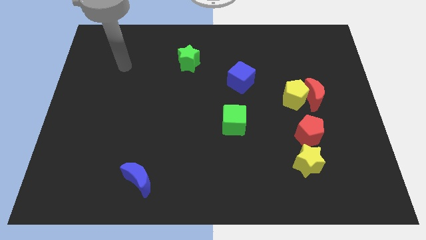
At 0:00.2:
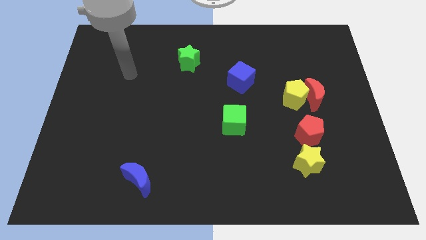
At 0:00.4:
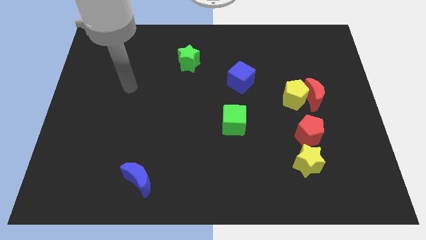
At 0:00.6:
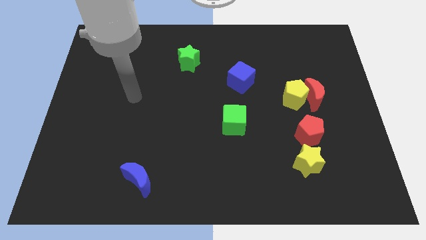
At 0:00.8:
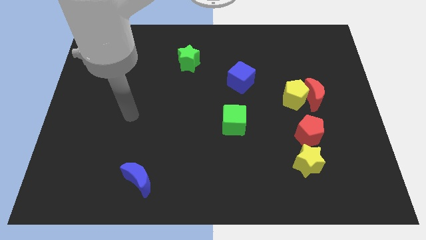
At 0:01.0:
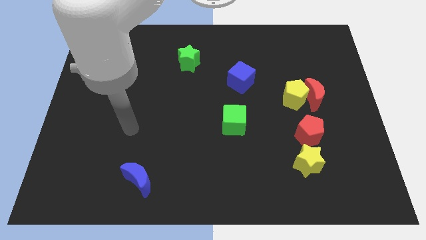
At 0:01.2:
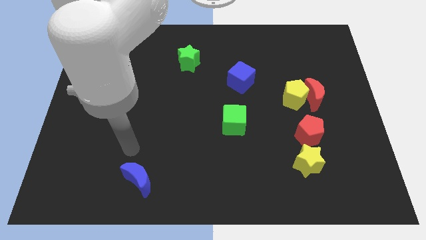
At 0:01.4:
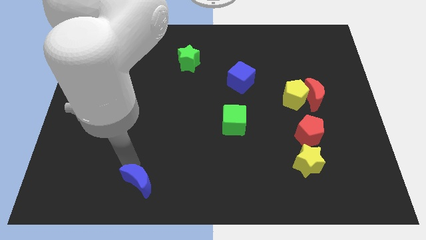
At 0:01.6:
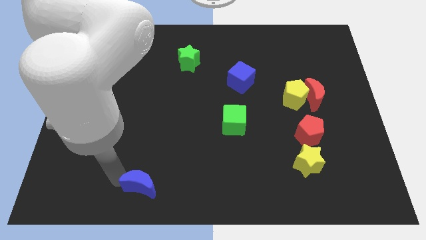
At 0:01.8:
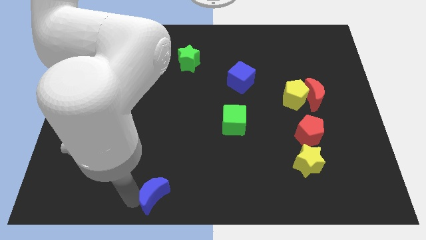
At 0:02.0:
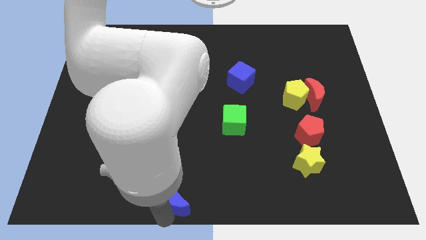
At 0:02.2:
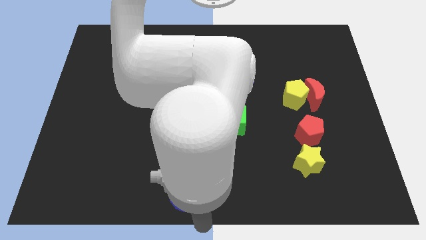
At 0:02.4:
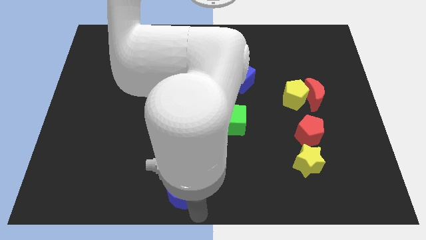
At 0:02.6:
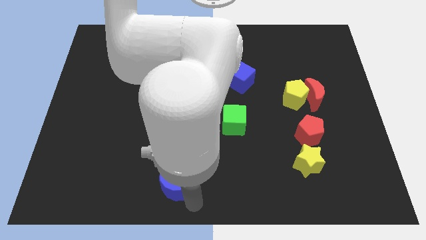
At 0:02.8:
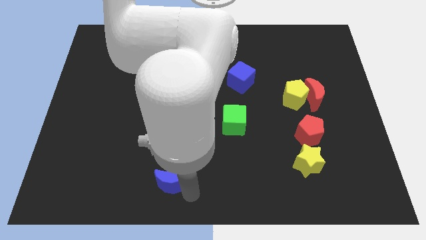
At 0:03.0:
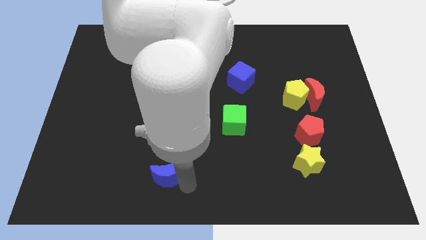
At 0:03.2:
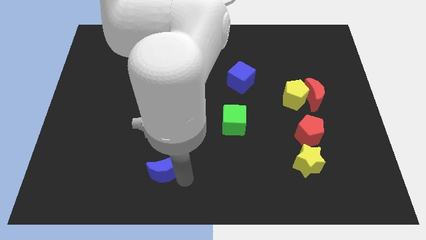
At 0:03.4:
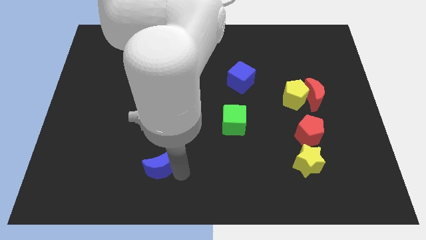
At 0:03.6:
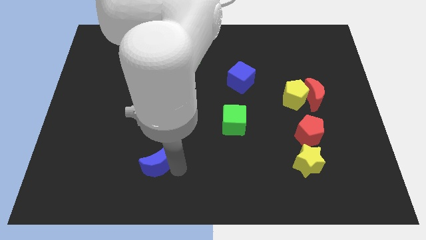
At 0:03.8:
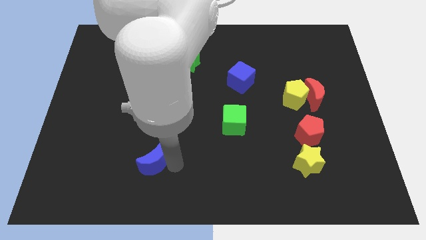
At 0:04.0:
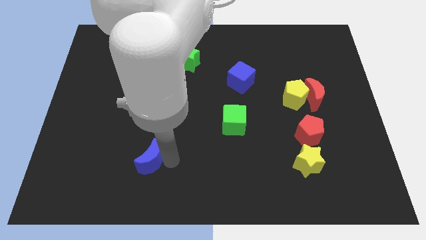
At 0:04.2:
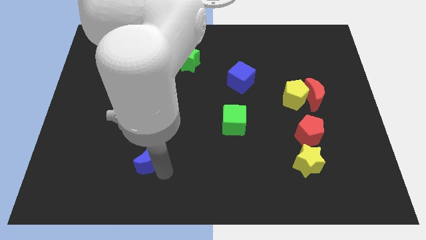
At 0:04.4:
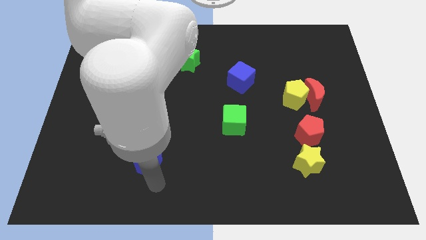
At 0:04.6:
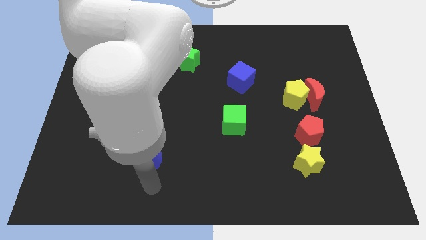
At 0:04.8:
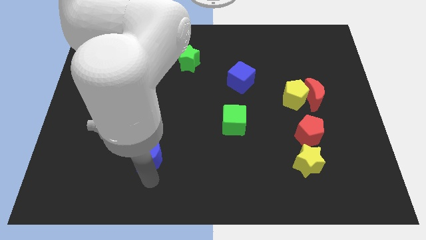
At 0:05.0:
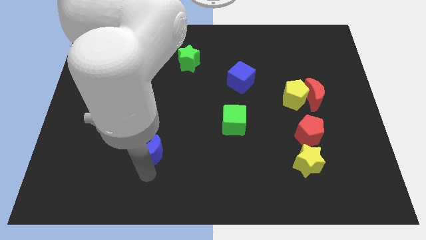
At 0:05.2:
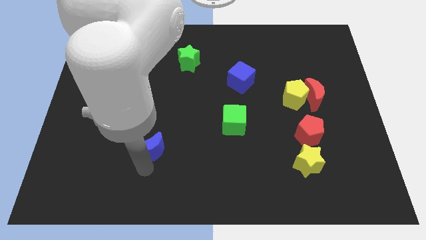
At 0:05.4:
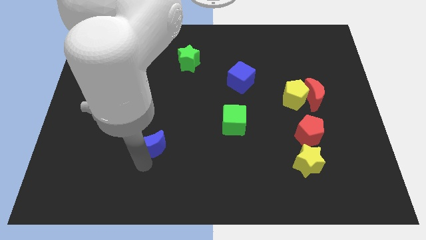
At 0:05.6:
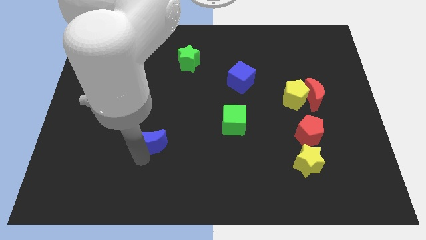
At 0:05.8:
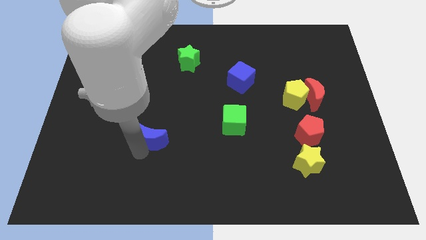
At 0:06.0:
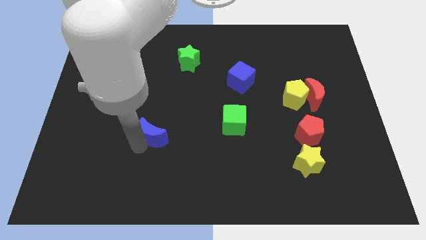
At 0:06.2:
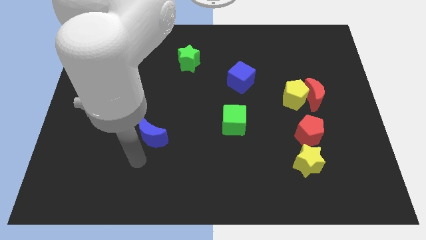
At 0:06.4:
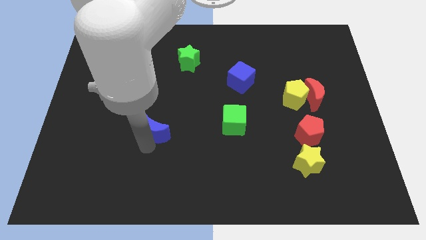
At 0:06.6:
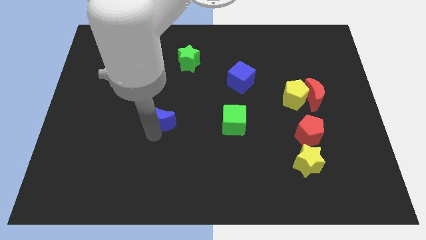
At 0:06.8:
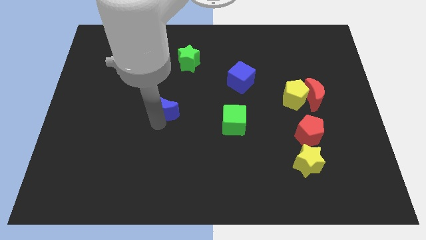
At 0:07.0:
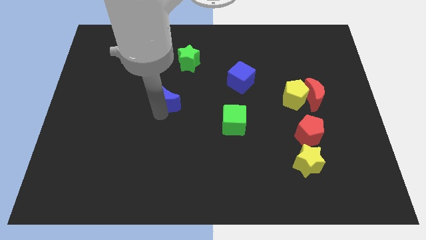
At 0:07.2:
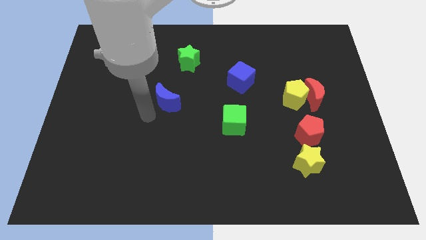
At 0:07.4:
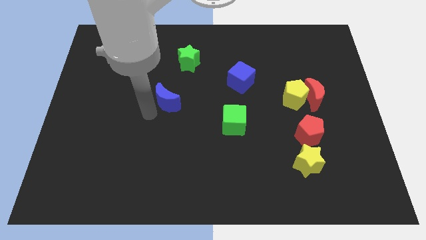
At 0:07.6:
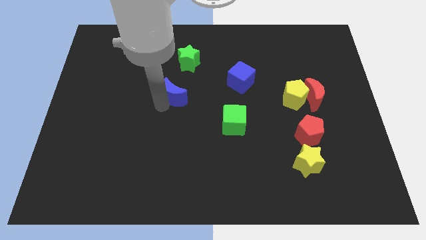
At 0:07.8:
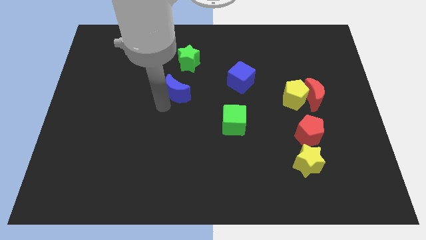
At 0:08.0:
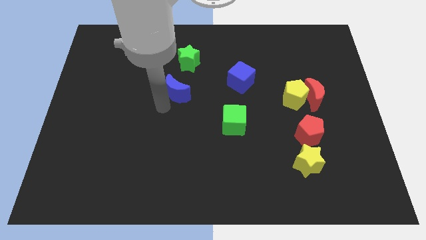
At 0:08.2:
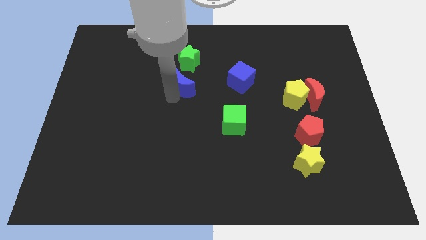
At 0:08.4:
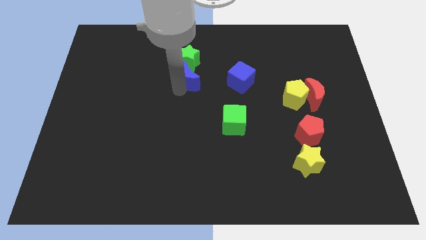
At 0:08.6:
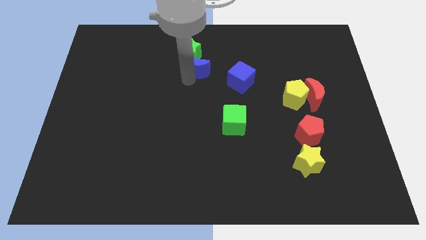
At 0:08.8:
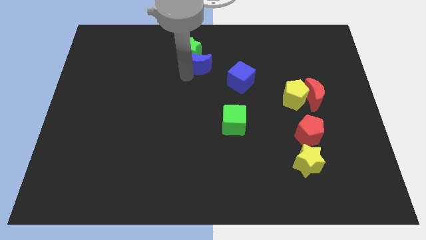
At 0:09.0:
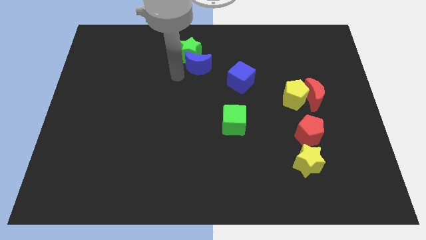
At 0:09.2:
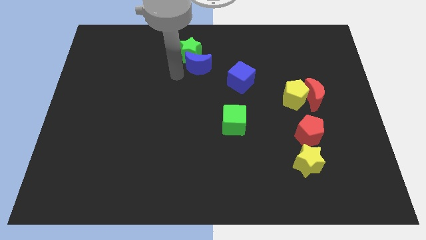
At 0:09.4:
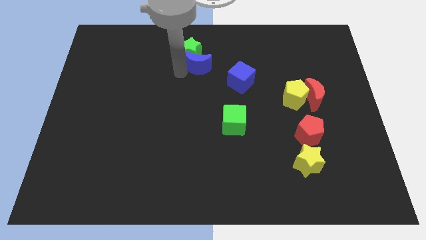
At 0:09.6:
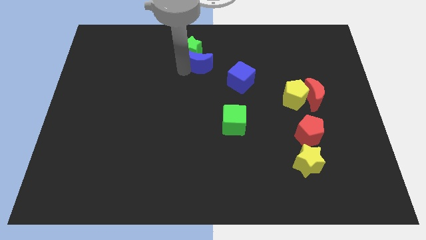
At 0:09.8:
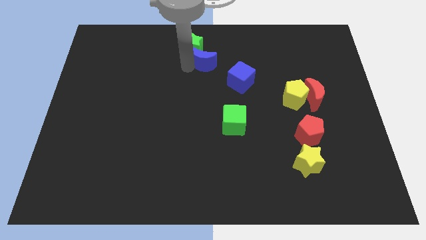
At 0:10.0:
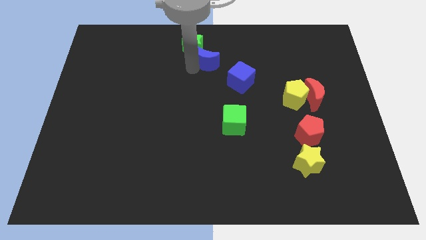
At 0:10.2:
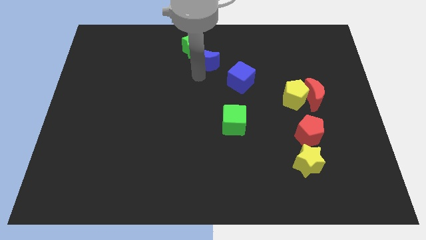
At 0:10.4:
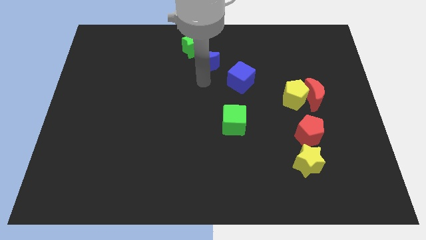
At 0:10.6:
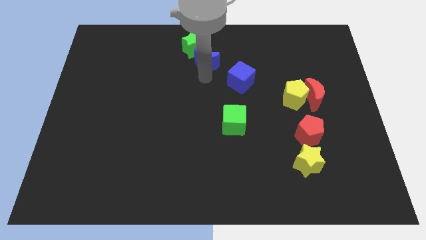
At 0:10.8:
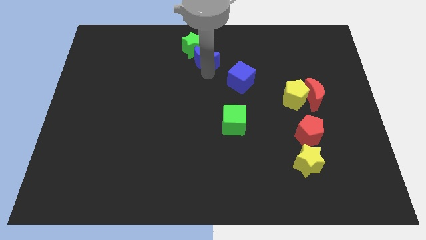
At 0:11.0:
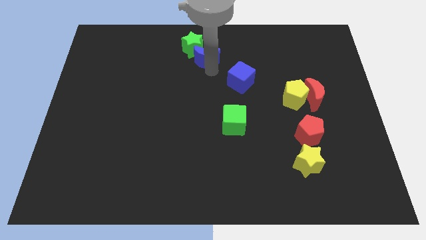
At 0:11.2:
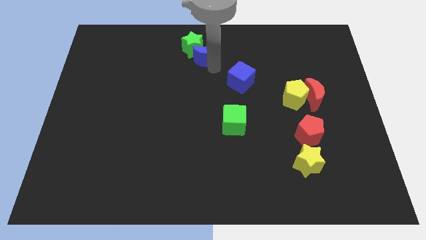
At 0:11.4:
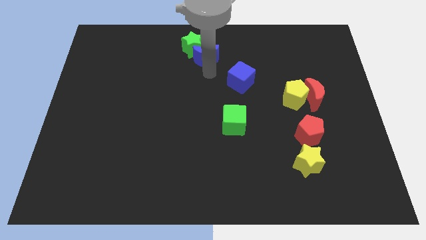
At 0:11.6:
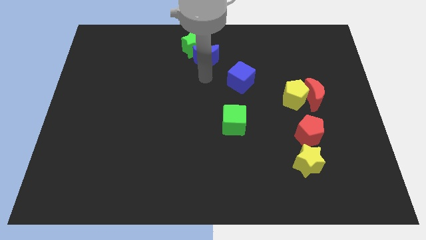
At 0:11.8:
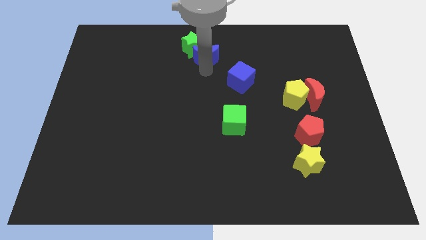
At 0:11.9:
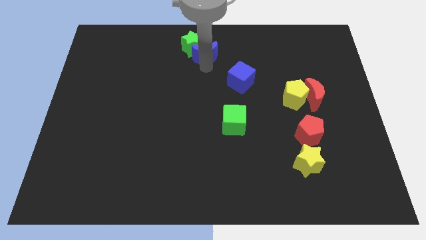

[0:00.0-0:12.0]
move the blue moon to the towards your base

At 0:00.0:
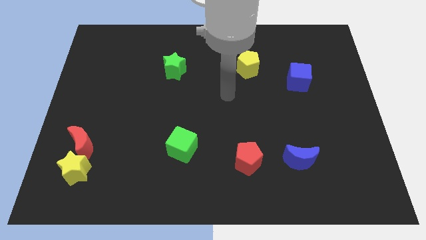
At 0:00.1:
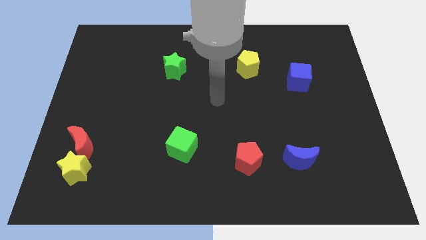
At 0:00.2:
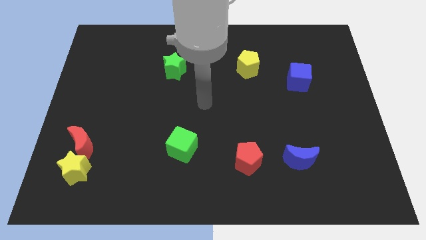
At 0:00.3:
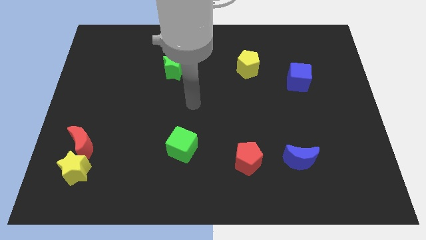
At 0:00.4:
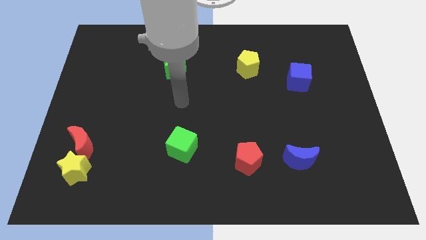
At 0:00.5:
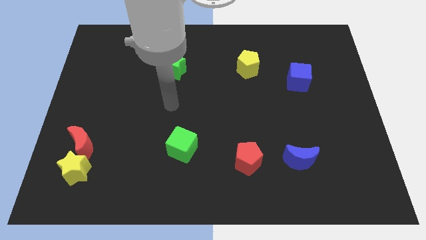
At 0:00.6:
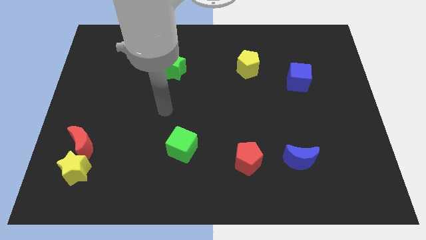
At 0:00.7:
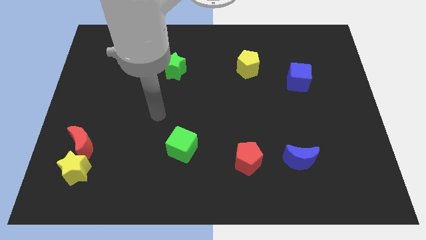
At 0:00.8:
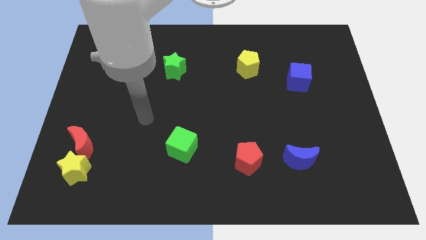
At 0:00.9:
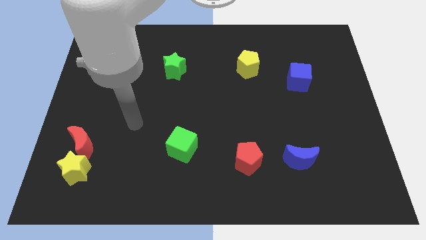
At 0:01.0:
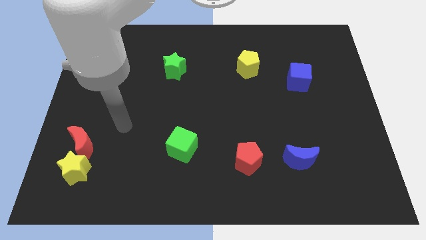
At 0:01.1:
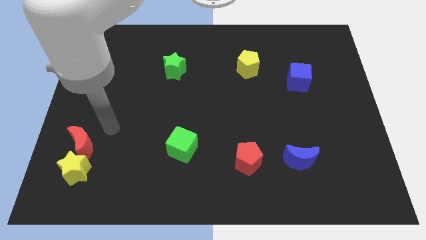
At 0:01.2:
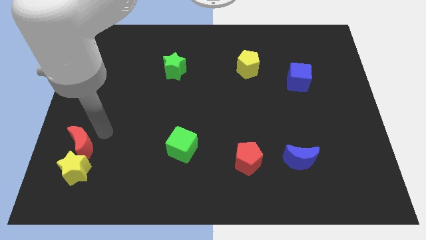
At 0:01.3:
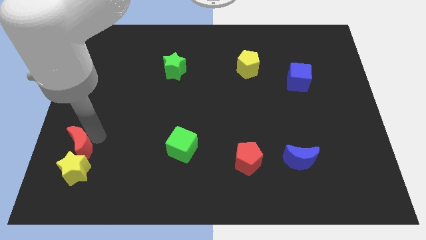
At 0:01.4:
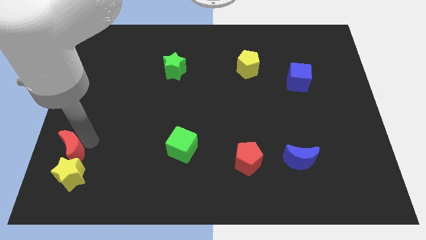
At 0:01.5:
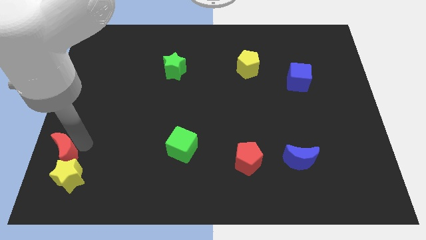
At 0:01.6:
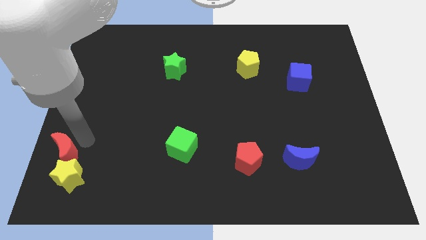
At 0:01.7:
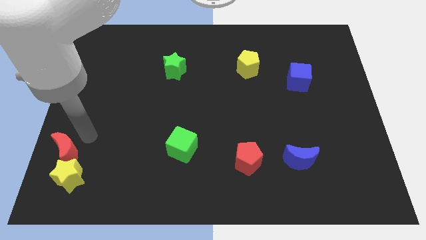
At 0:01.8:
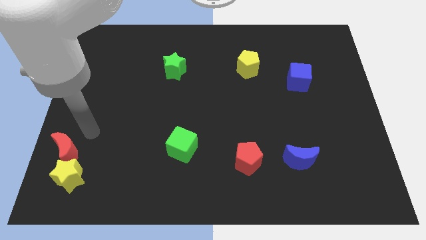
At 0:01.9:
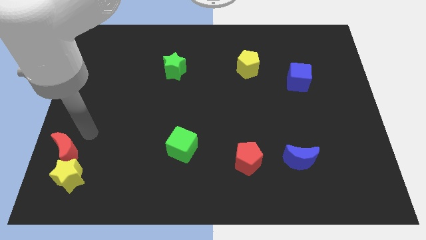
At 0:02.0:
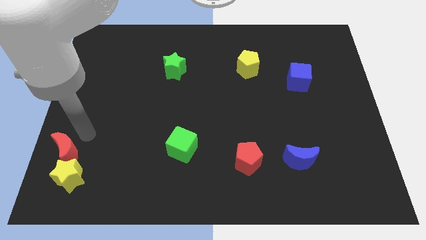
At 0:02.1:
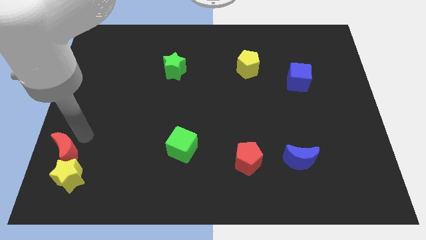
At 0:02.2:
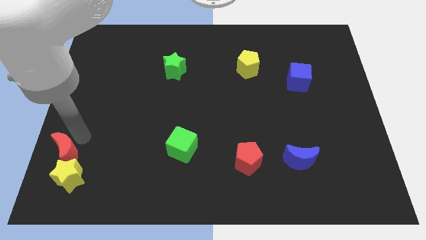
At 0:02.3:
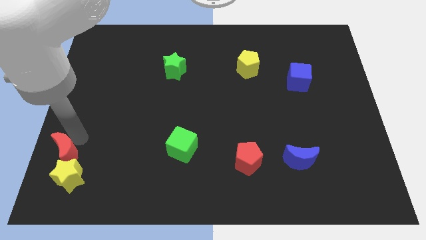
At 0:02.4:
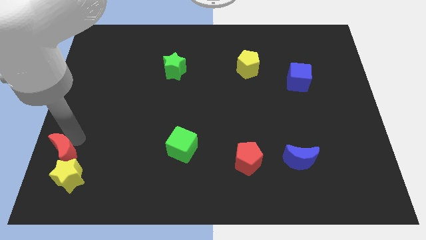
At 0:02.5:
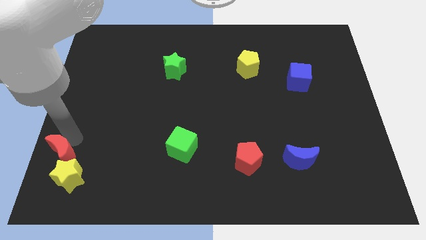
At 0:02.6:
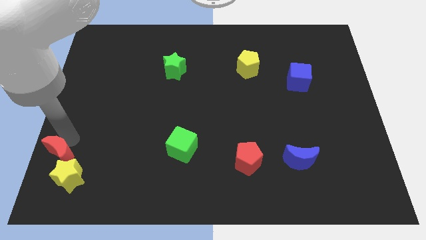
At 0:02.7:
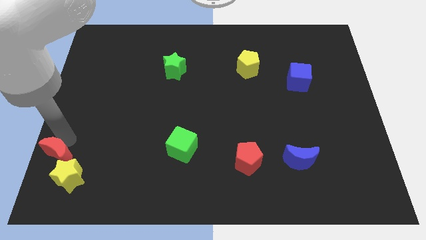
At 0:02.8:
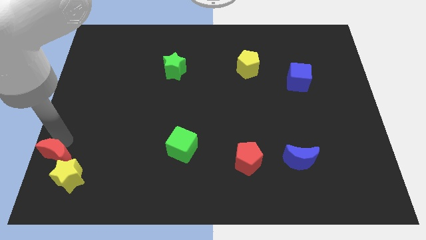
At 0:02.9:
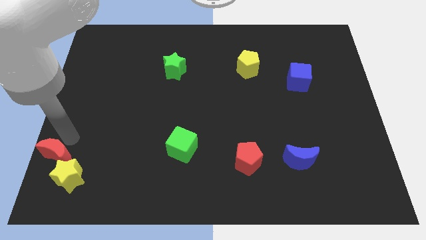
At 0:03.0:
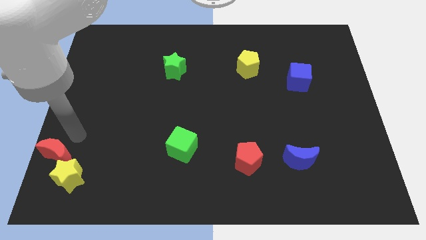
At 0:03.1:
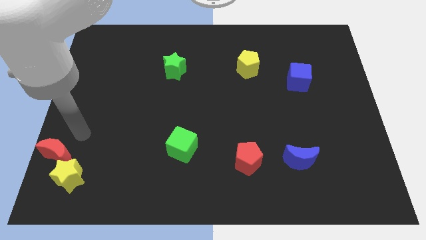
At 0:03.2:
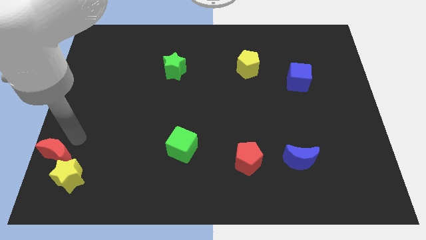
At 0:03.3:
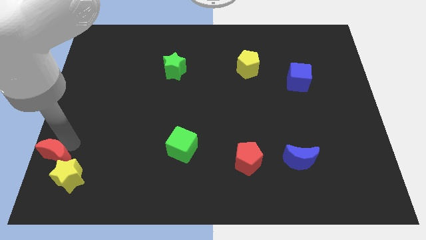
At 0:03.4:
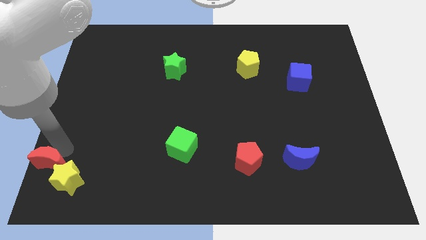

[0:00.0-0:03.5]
move the red moon to the bottom left
